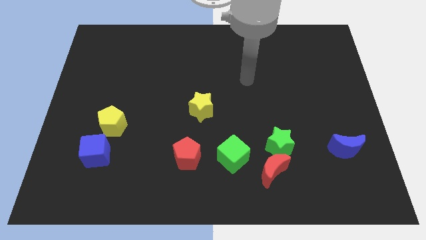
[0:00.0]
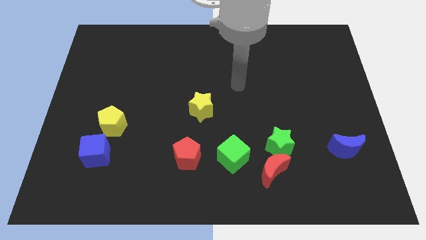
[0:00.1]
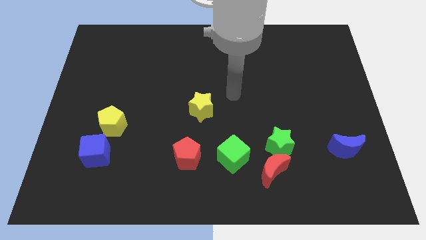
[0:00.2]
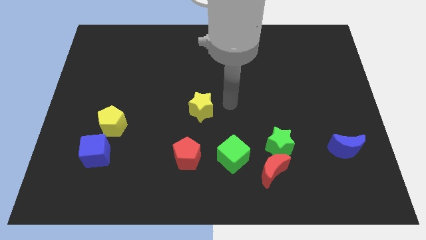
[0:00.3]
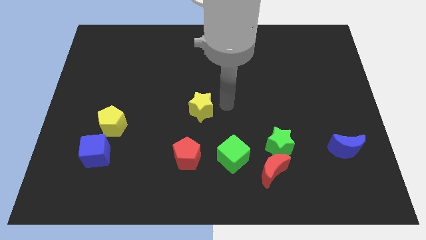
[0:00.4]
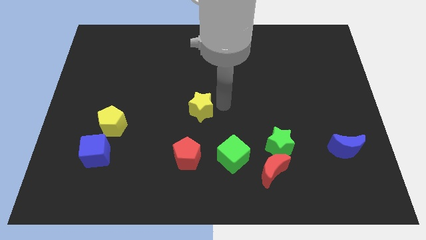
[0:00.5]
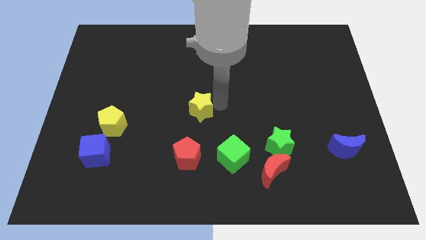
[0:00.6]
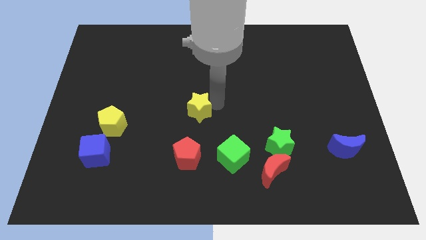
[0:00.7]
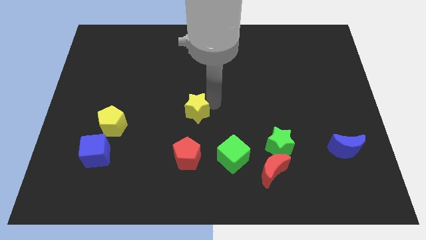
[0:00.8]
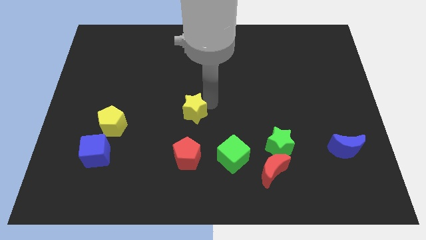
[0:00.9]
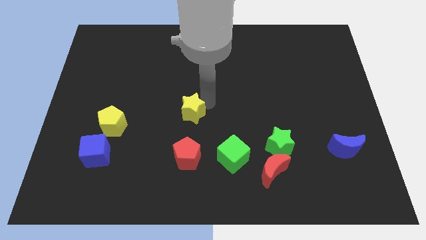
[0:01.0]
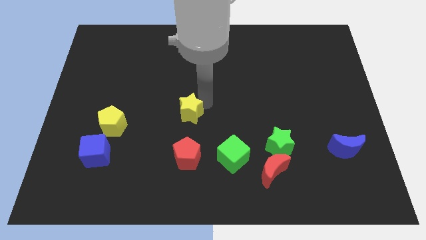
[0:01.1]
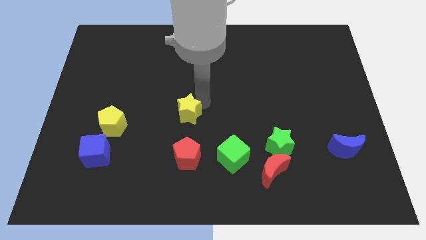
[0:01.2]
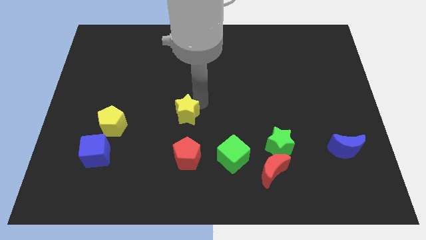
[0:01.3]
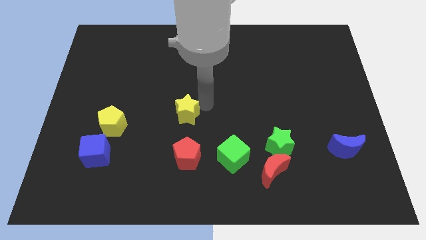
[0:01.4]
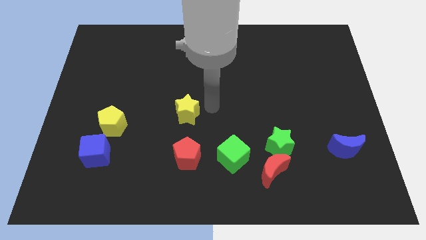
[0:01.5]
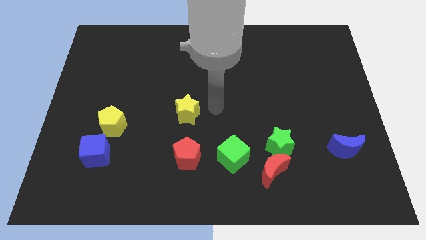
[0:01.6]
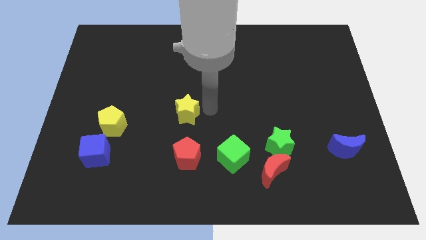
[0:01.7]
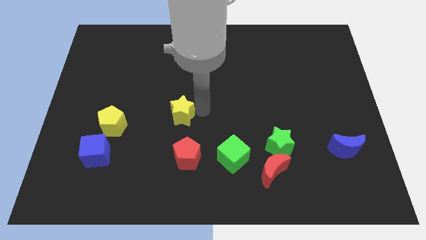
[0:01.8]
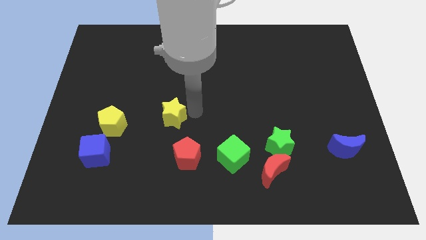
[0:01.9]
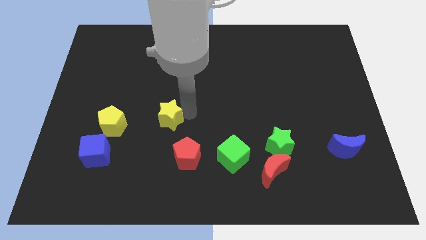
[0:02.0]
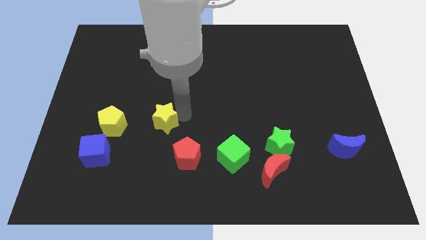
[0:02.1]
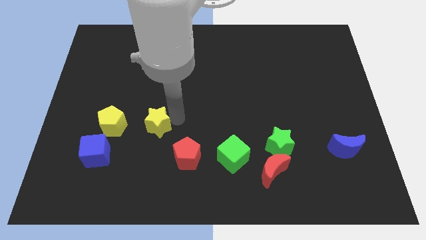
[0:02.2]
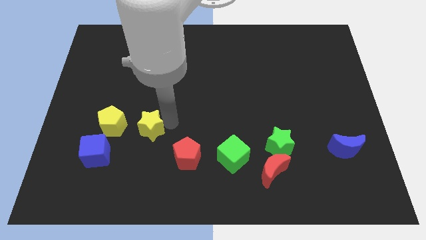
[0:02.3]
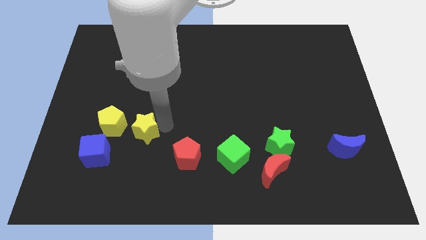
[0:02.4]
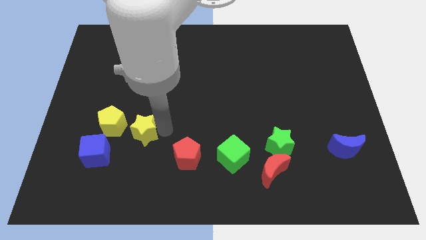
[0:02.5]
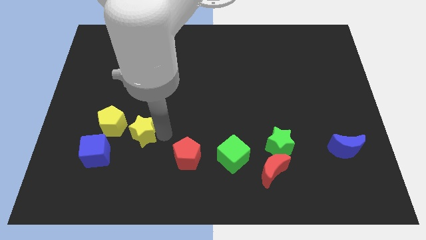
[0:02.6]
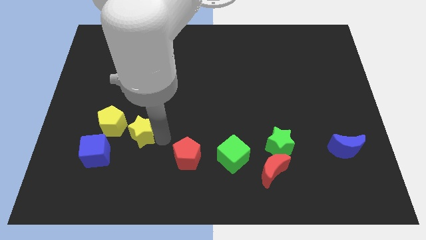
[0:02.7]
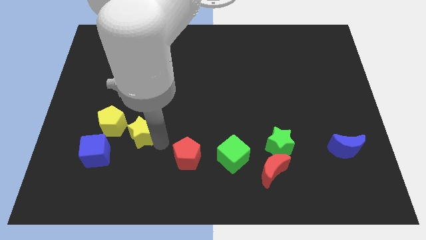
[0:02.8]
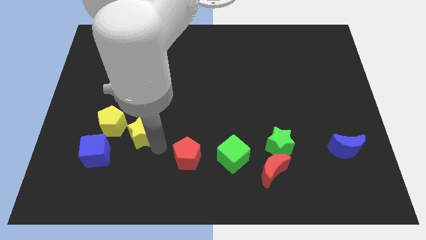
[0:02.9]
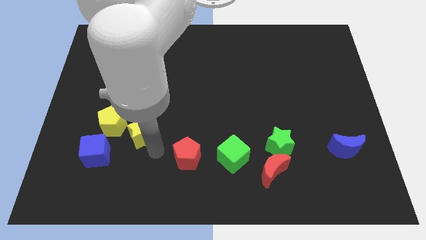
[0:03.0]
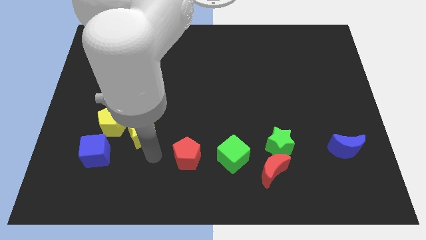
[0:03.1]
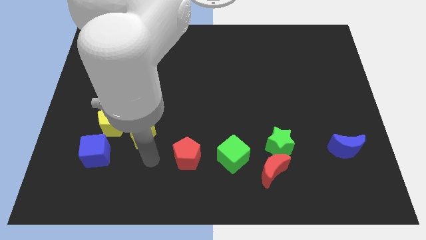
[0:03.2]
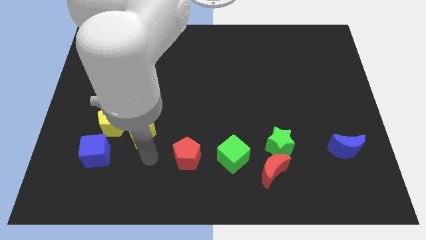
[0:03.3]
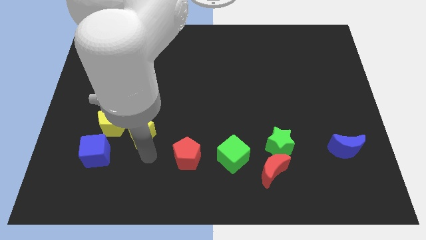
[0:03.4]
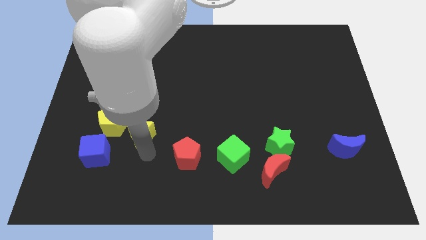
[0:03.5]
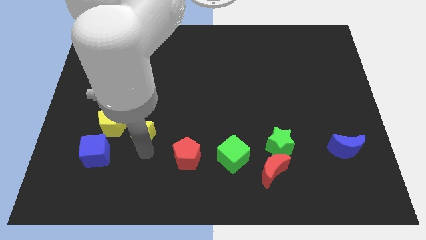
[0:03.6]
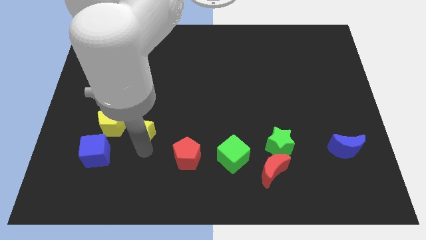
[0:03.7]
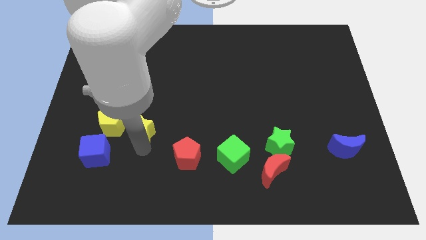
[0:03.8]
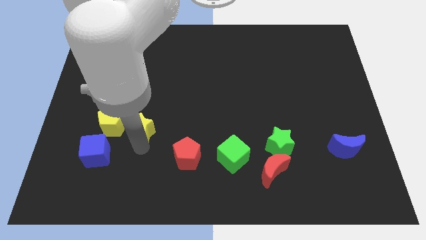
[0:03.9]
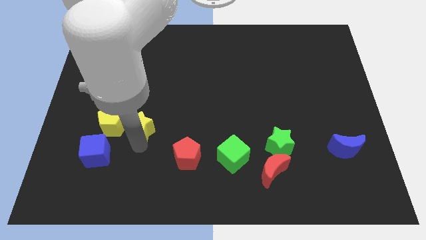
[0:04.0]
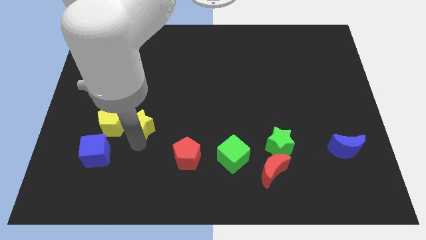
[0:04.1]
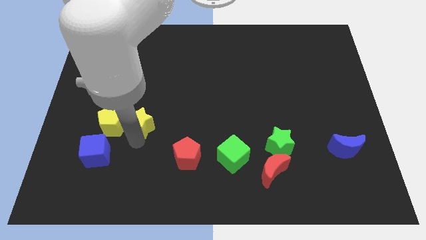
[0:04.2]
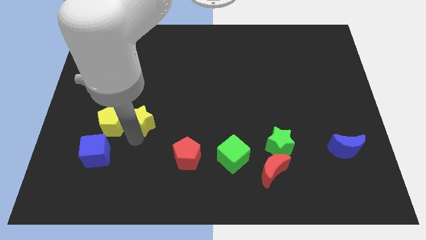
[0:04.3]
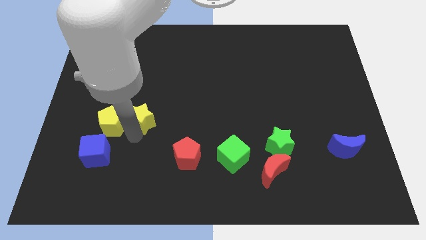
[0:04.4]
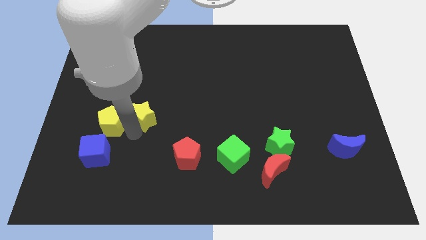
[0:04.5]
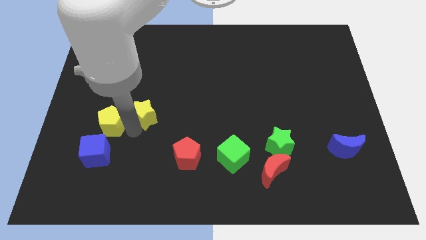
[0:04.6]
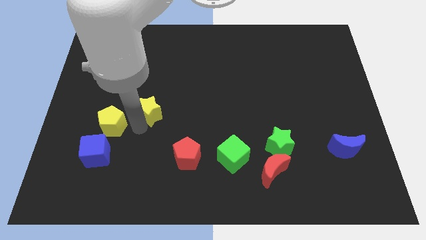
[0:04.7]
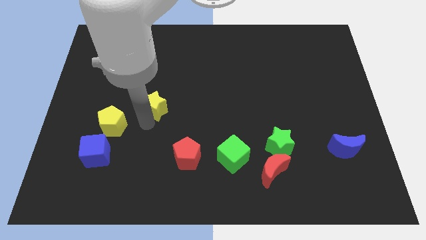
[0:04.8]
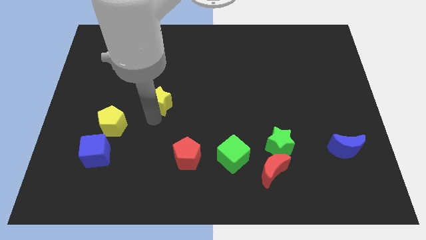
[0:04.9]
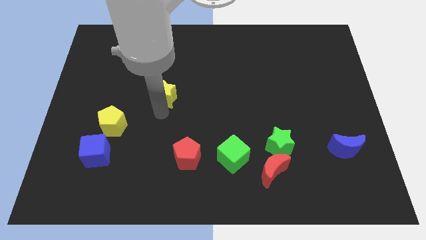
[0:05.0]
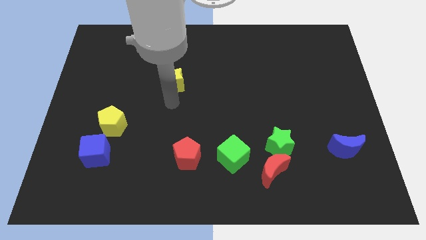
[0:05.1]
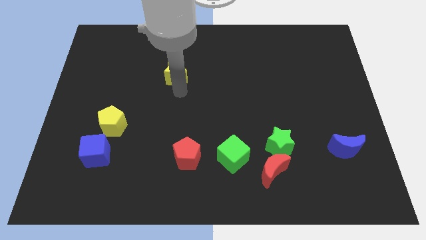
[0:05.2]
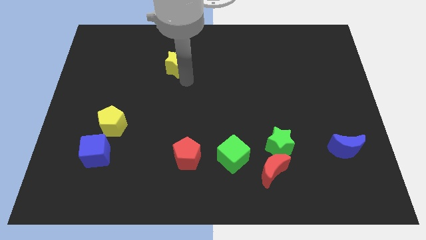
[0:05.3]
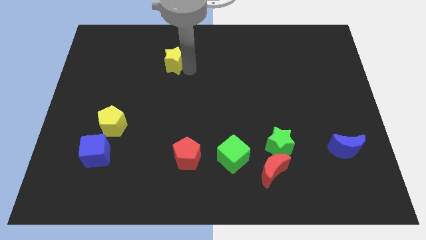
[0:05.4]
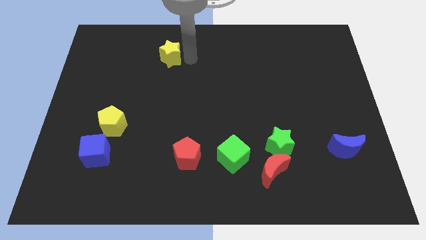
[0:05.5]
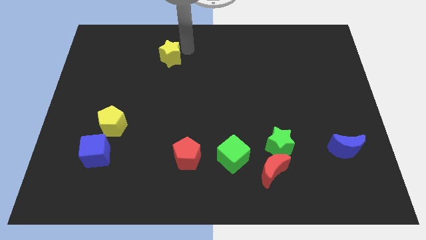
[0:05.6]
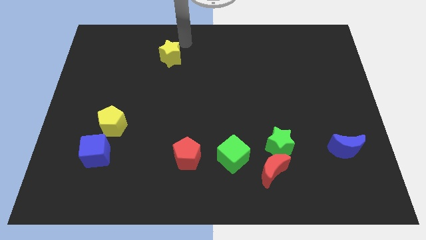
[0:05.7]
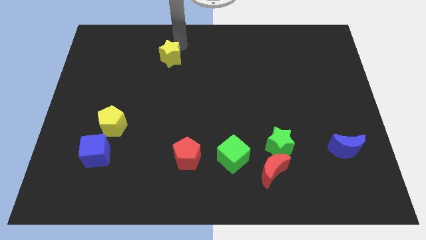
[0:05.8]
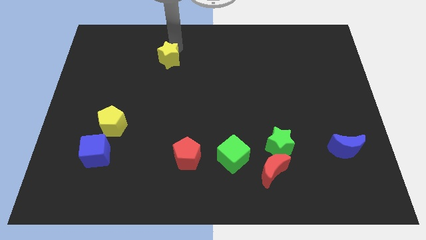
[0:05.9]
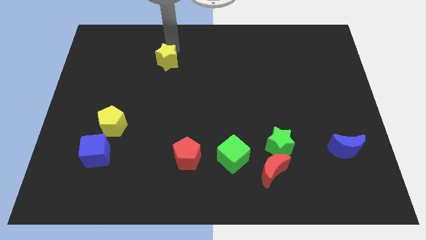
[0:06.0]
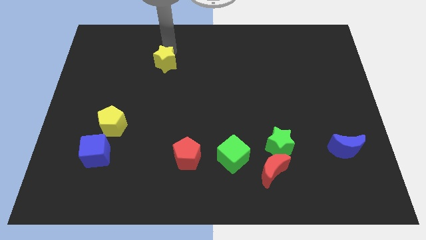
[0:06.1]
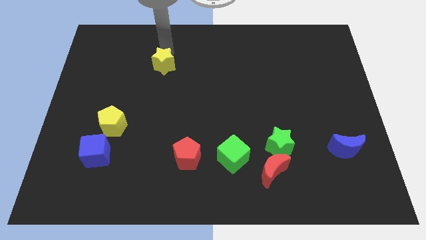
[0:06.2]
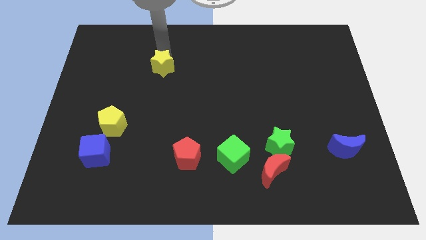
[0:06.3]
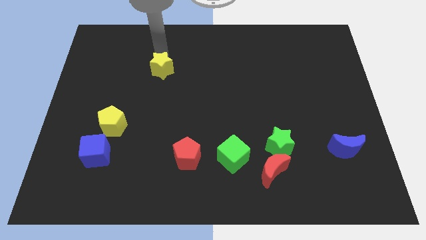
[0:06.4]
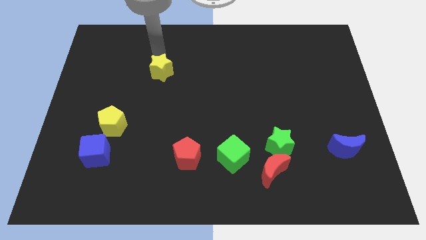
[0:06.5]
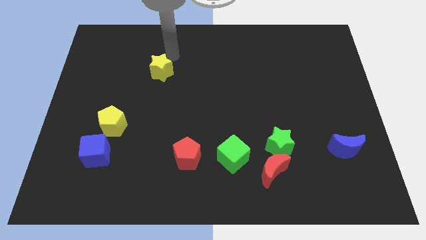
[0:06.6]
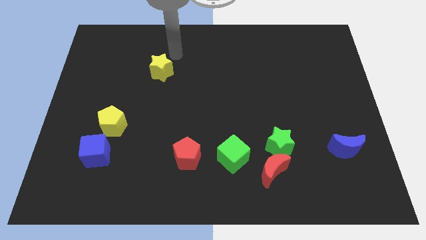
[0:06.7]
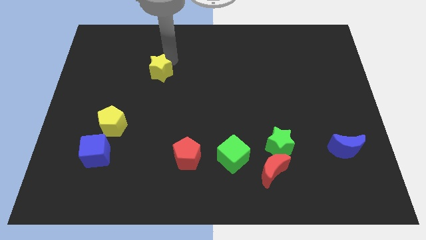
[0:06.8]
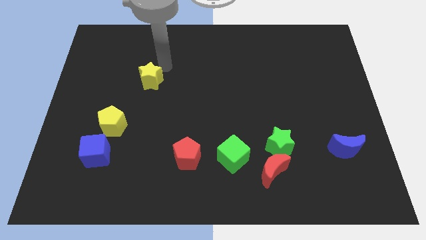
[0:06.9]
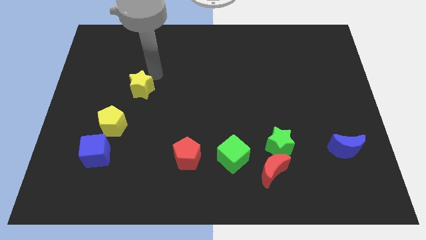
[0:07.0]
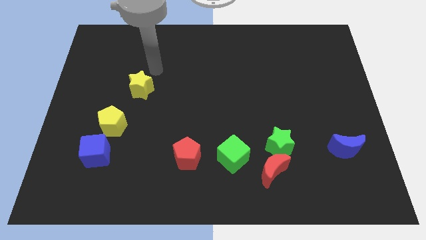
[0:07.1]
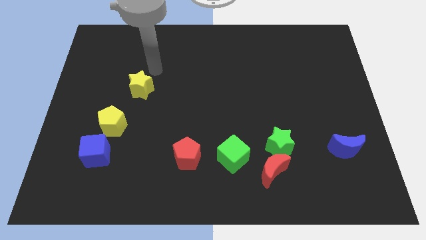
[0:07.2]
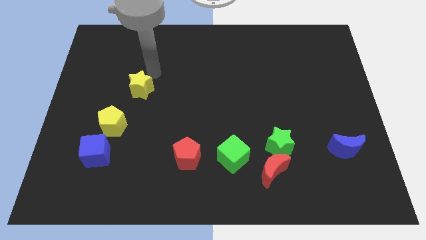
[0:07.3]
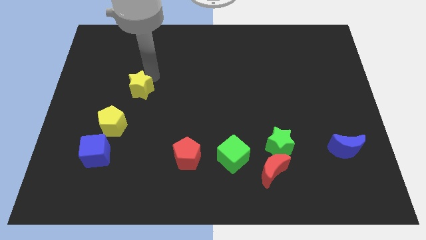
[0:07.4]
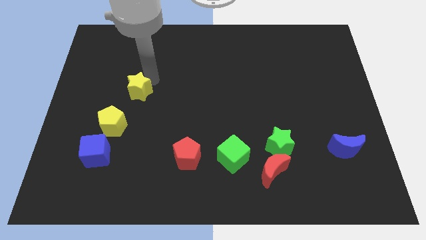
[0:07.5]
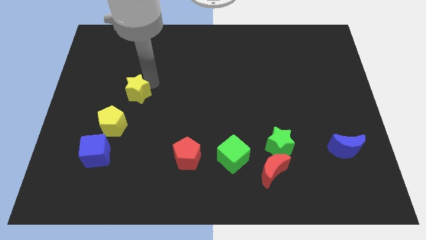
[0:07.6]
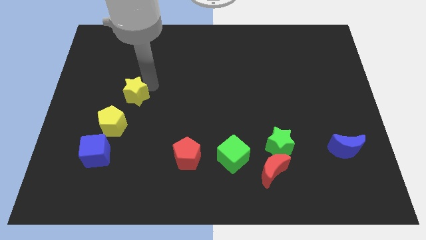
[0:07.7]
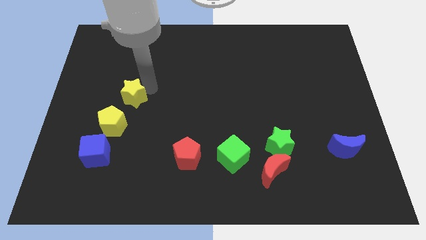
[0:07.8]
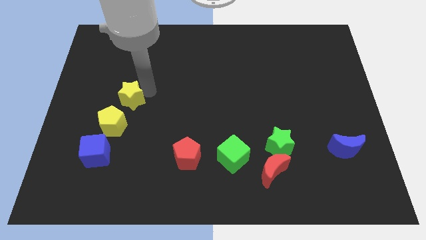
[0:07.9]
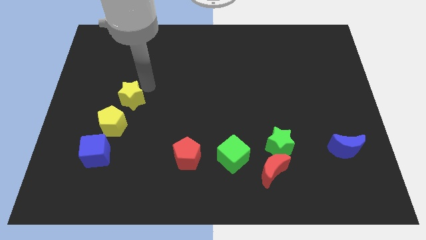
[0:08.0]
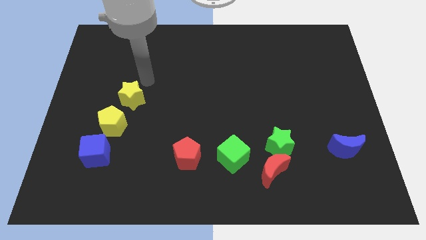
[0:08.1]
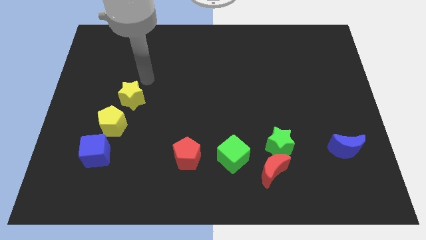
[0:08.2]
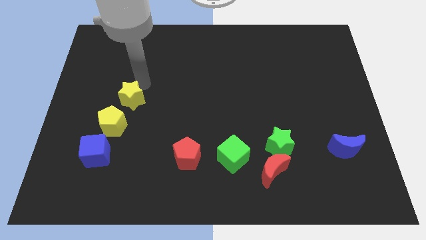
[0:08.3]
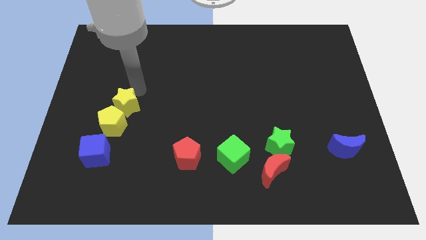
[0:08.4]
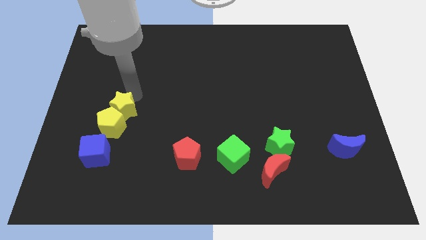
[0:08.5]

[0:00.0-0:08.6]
slide the yellow star towards the yellow pentagon
